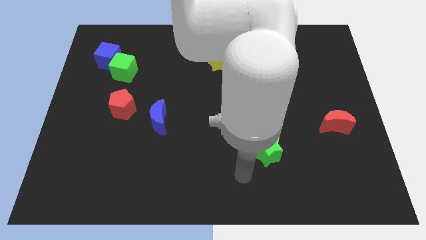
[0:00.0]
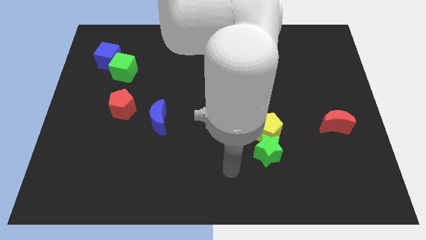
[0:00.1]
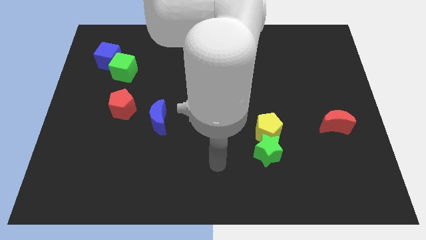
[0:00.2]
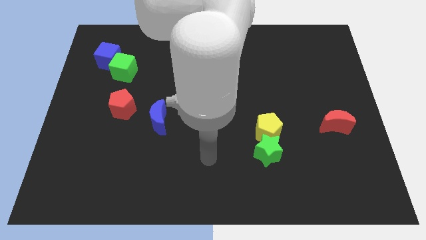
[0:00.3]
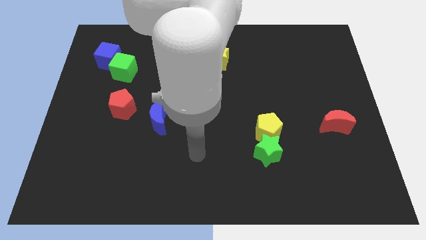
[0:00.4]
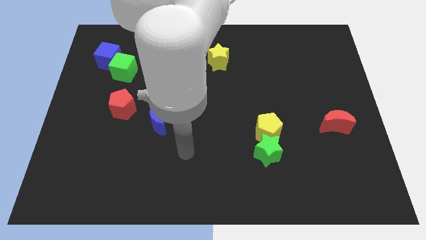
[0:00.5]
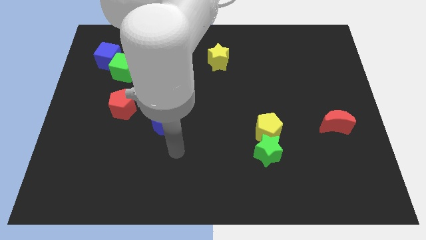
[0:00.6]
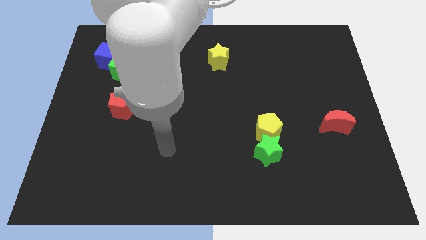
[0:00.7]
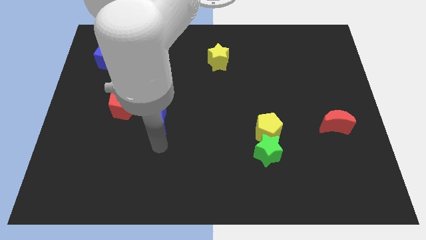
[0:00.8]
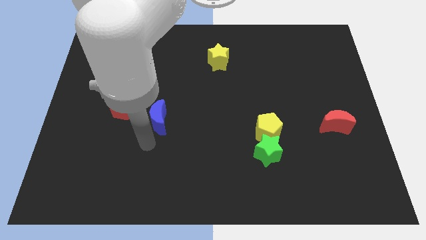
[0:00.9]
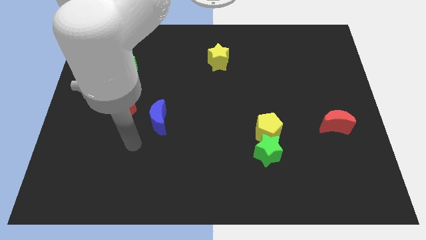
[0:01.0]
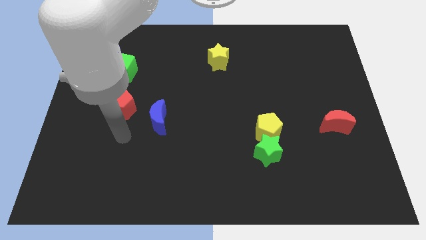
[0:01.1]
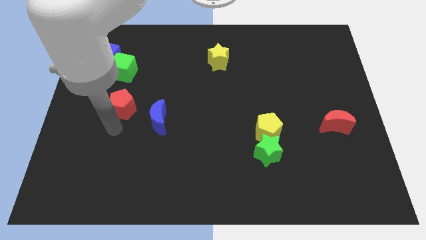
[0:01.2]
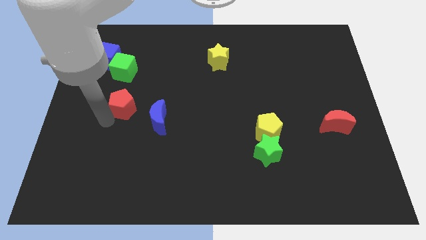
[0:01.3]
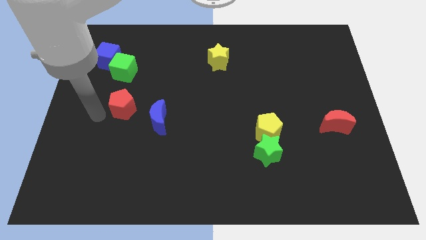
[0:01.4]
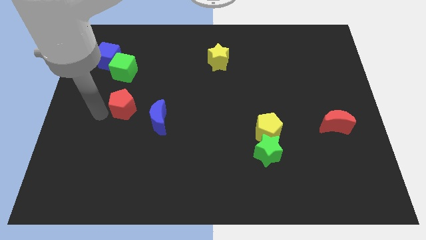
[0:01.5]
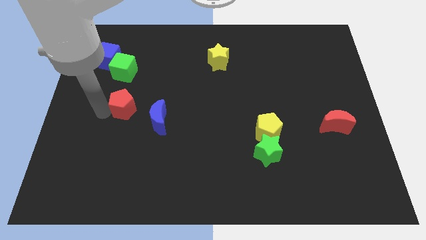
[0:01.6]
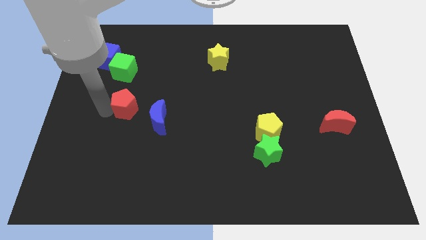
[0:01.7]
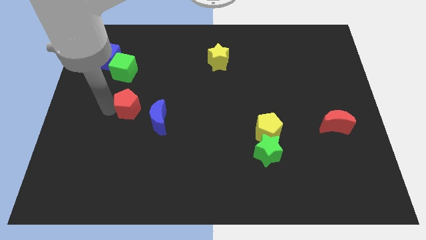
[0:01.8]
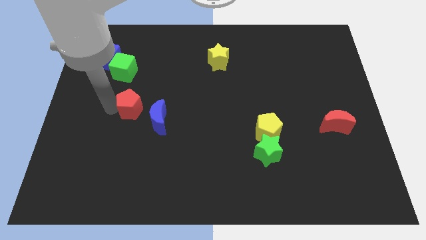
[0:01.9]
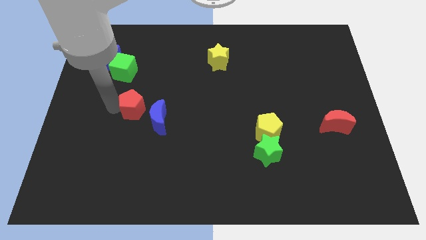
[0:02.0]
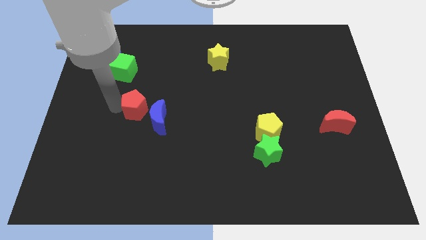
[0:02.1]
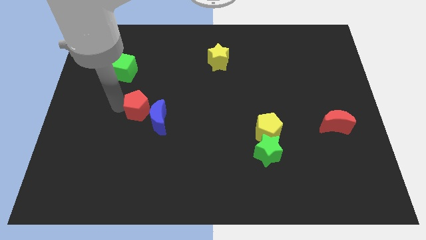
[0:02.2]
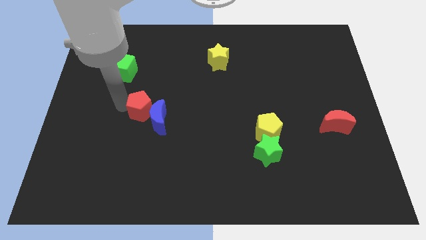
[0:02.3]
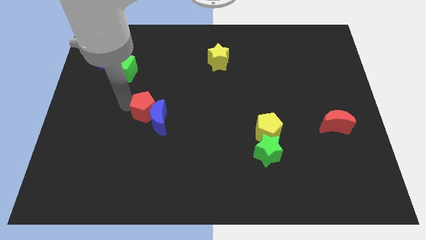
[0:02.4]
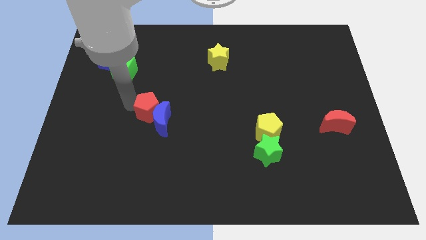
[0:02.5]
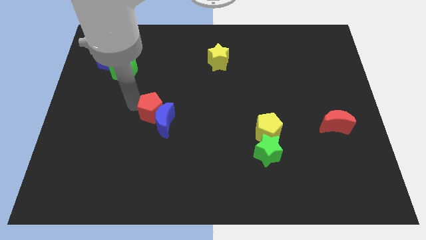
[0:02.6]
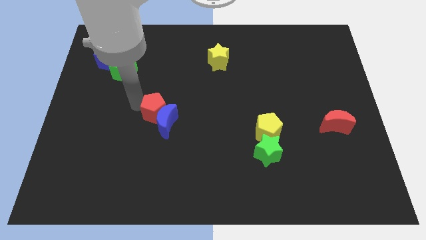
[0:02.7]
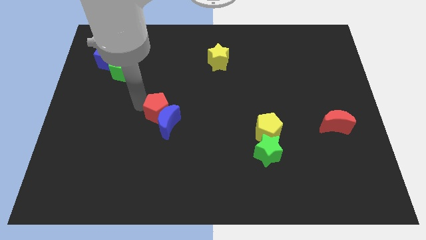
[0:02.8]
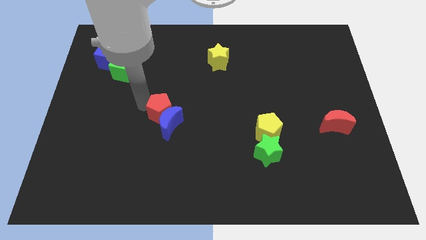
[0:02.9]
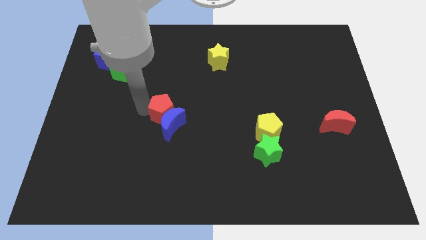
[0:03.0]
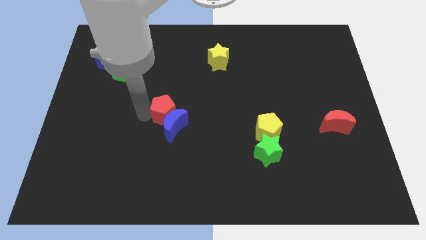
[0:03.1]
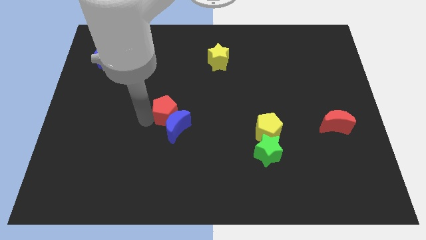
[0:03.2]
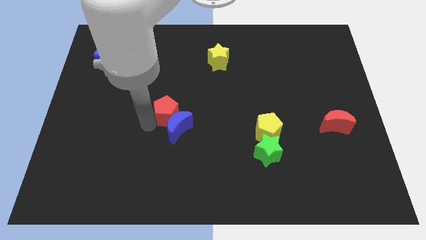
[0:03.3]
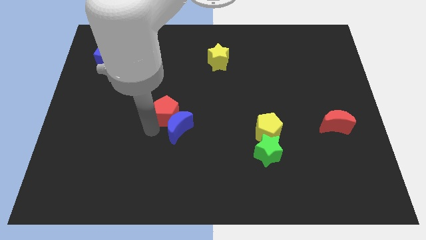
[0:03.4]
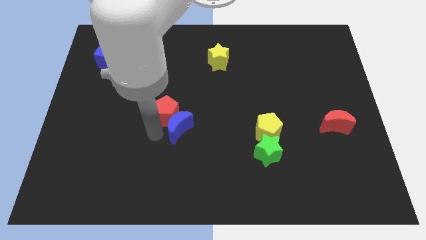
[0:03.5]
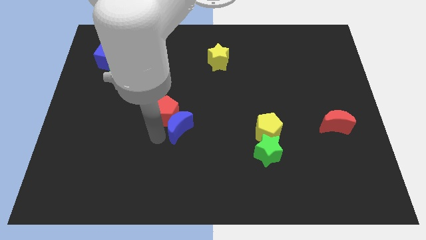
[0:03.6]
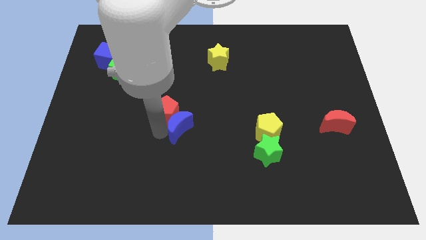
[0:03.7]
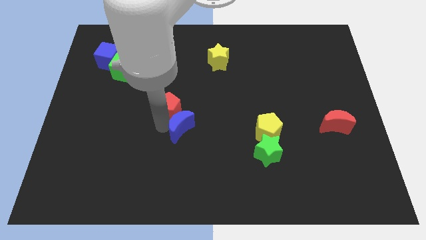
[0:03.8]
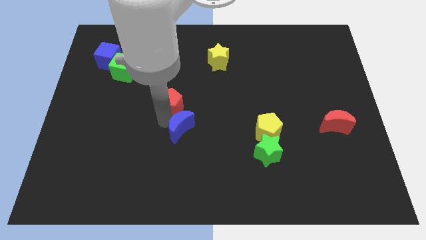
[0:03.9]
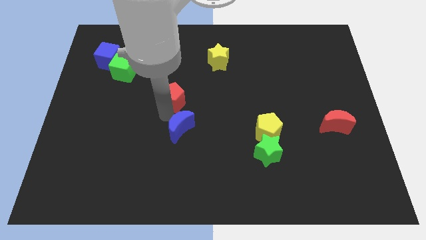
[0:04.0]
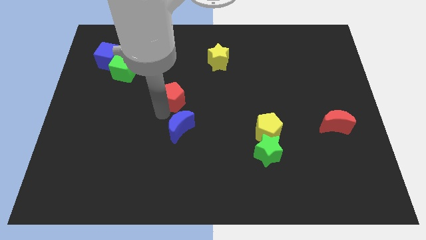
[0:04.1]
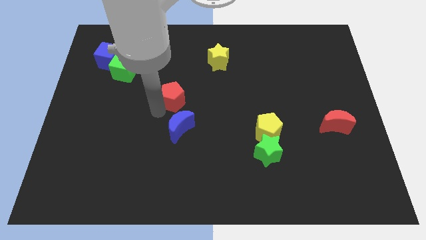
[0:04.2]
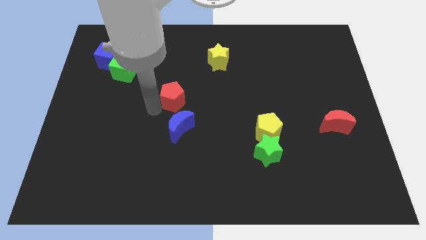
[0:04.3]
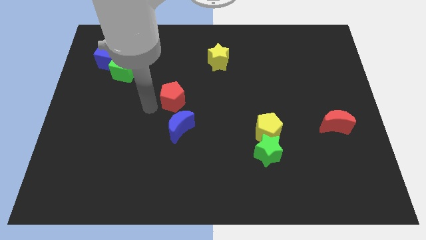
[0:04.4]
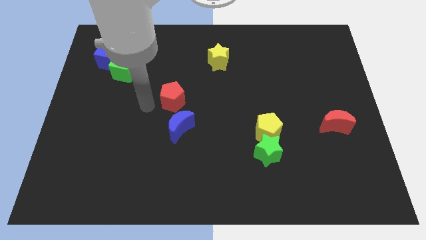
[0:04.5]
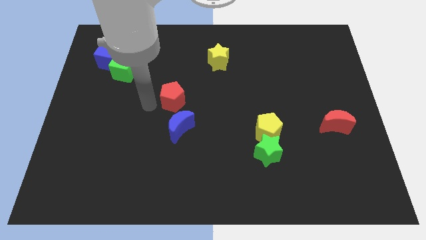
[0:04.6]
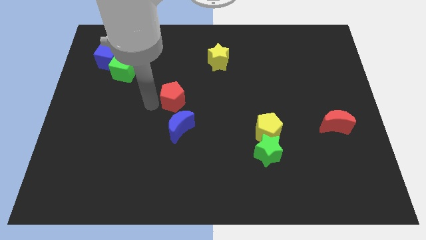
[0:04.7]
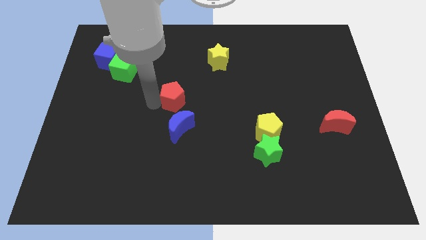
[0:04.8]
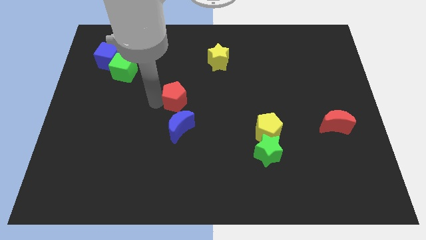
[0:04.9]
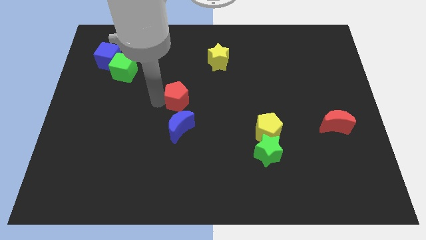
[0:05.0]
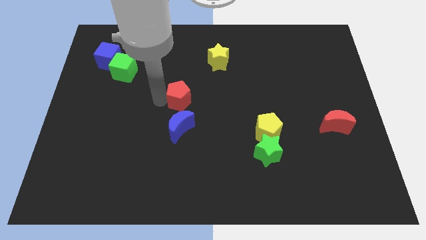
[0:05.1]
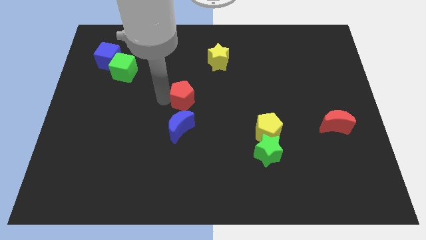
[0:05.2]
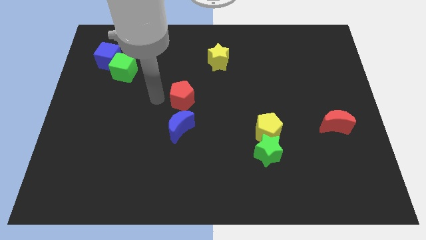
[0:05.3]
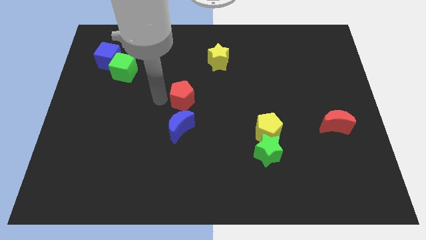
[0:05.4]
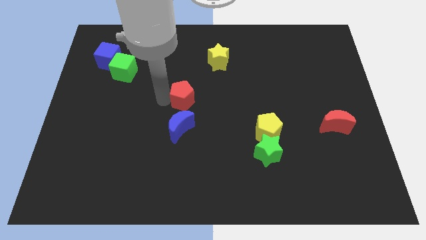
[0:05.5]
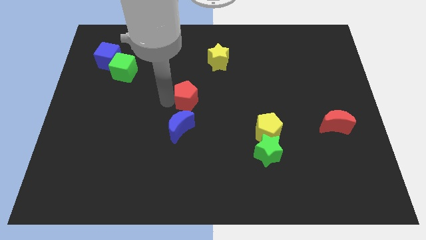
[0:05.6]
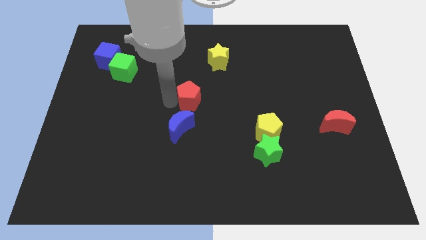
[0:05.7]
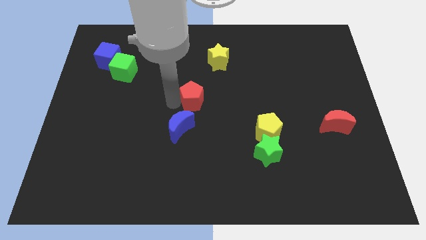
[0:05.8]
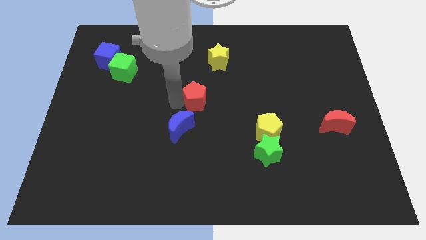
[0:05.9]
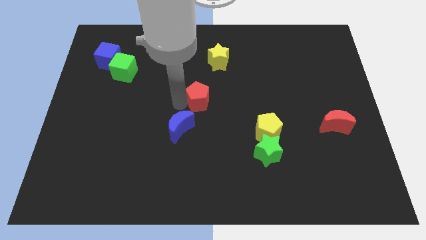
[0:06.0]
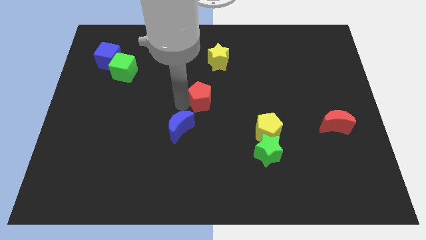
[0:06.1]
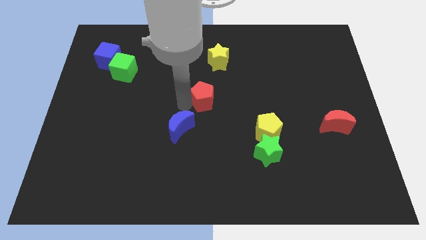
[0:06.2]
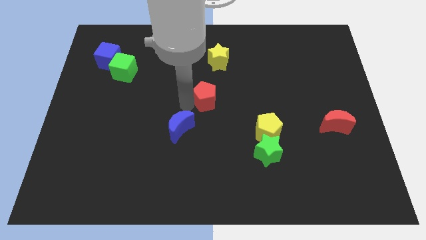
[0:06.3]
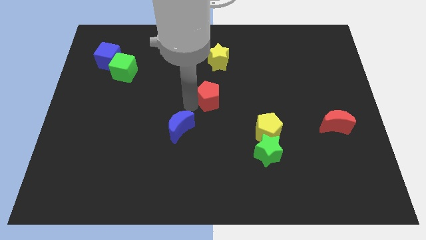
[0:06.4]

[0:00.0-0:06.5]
move the red pentagon right

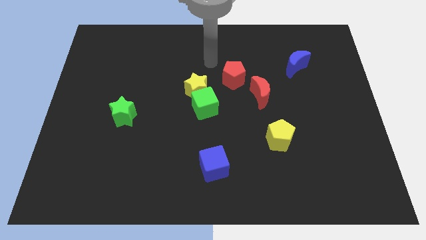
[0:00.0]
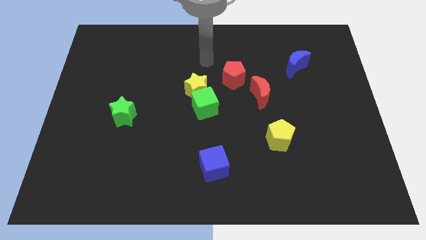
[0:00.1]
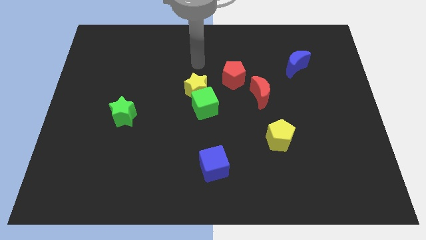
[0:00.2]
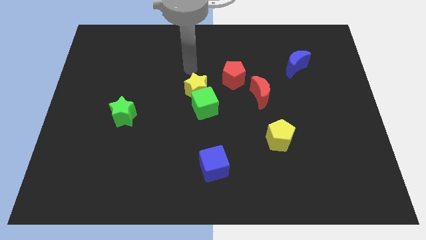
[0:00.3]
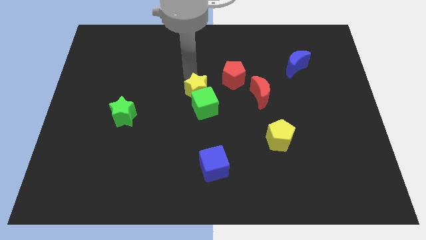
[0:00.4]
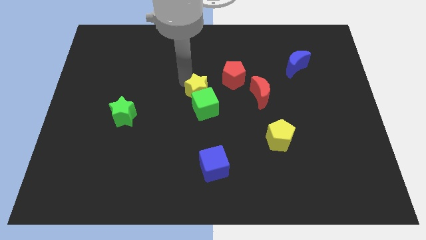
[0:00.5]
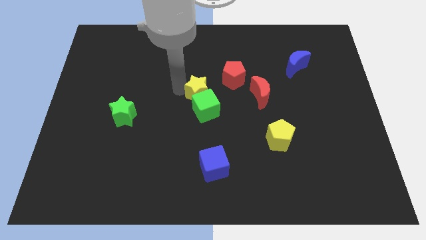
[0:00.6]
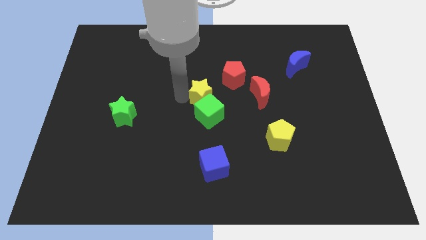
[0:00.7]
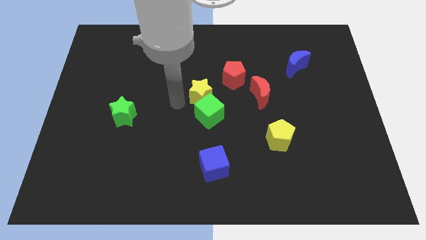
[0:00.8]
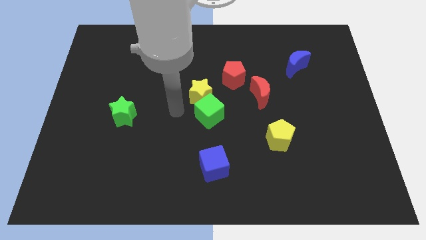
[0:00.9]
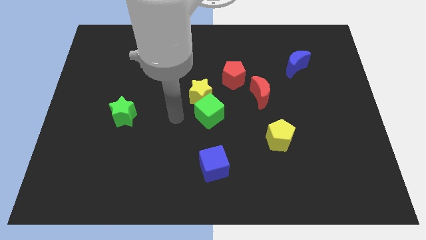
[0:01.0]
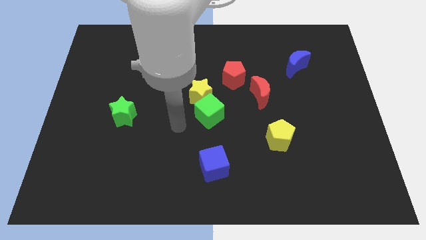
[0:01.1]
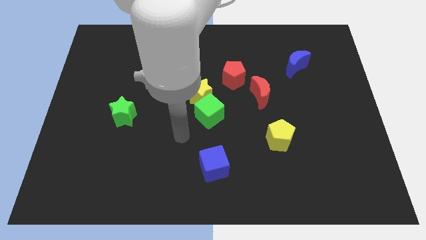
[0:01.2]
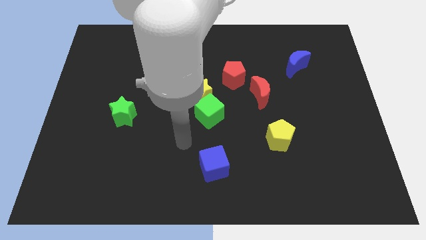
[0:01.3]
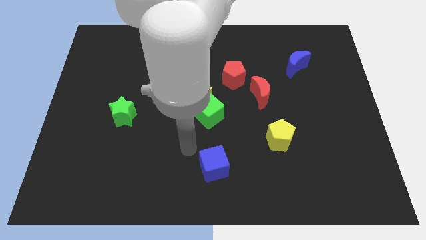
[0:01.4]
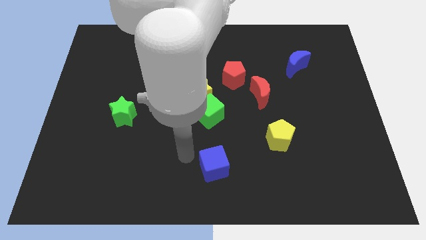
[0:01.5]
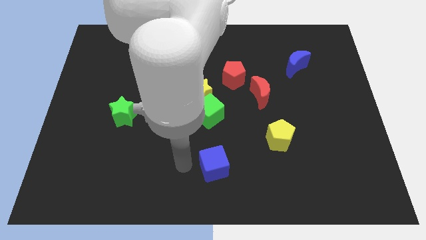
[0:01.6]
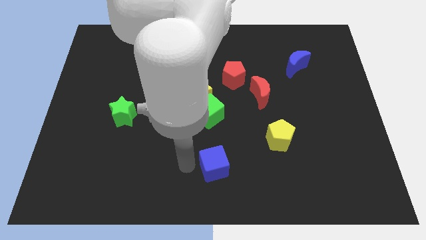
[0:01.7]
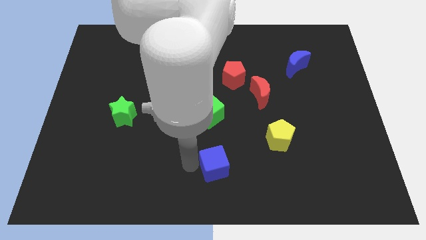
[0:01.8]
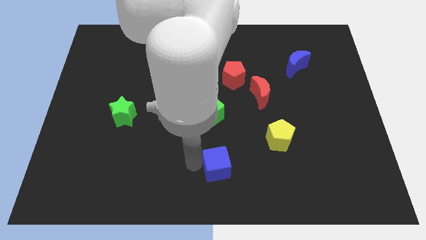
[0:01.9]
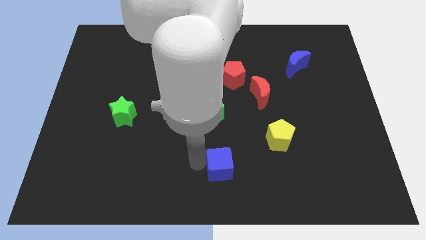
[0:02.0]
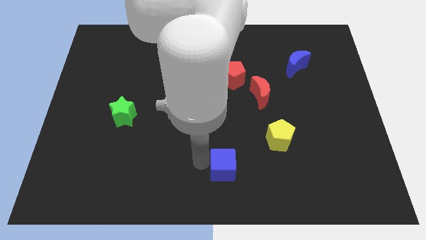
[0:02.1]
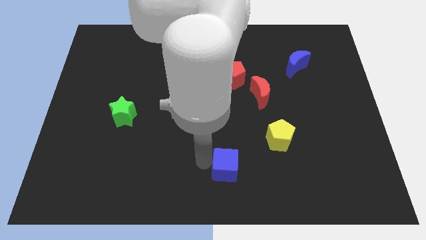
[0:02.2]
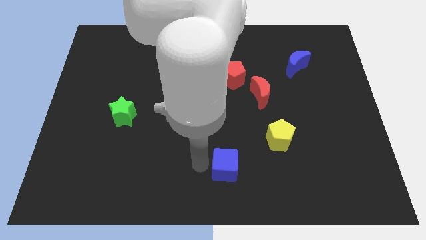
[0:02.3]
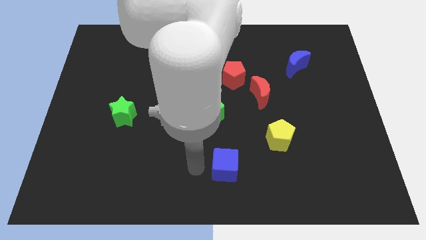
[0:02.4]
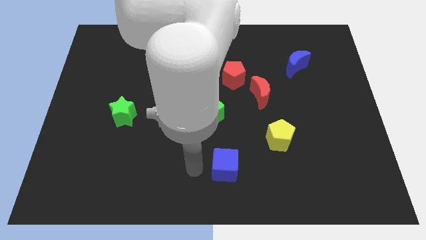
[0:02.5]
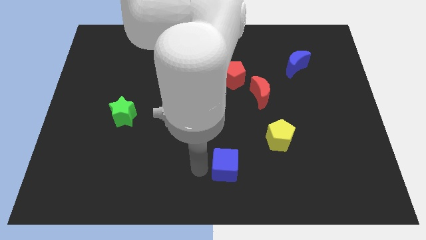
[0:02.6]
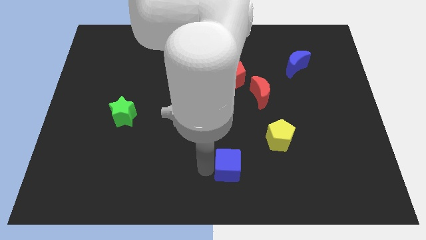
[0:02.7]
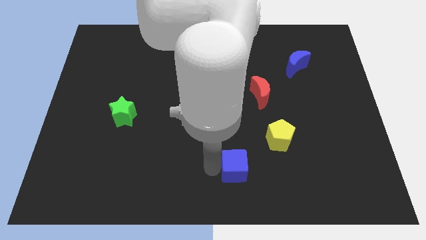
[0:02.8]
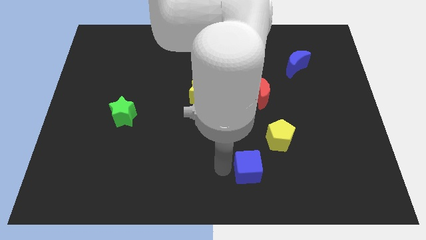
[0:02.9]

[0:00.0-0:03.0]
push the blue cube slightly right
